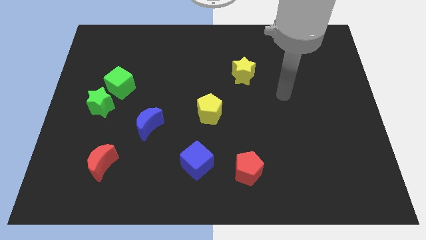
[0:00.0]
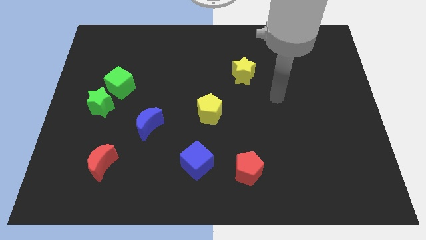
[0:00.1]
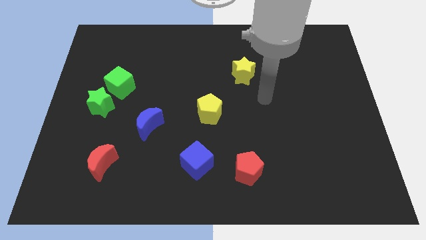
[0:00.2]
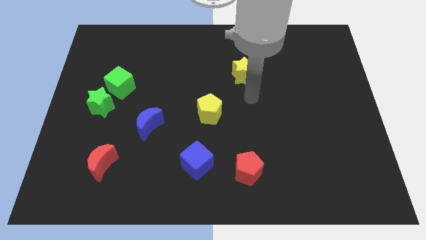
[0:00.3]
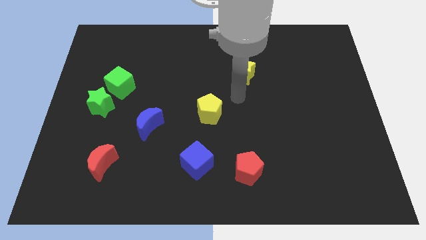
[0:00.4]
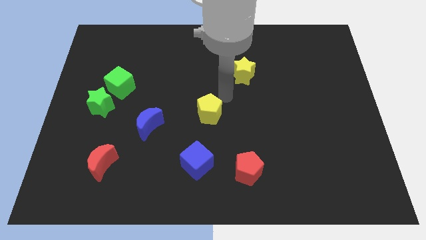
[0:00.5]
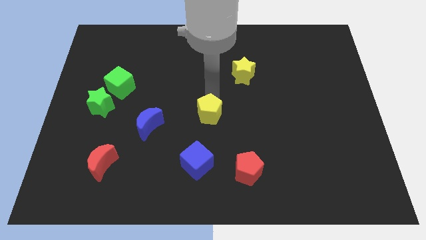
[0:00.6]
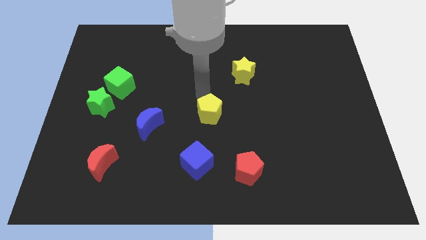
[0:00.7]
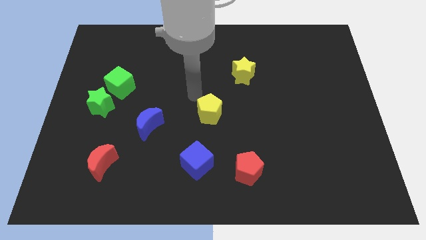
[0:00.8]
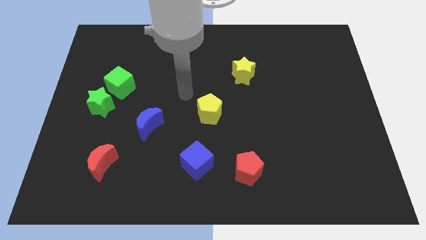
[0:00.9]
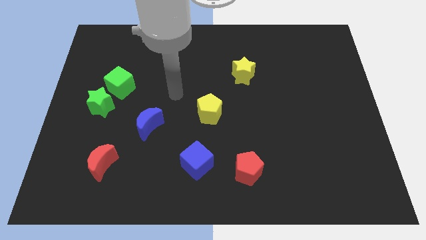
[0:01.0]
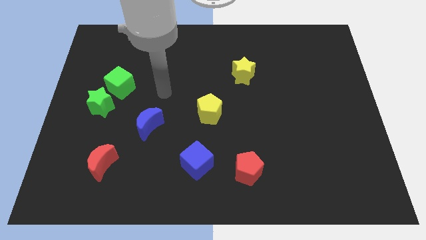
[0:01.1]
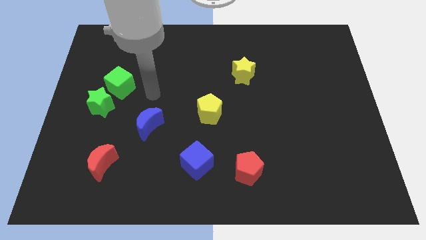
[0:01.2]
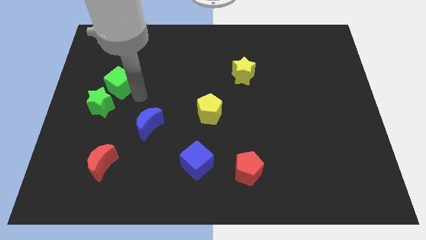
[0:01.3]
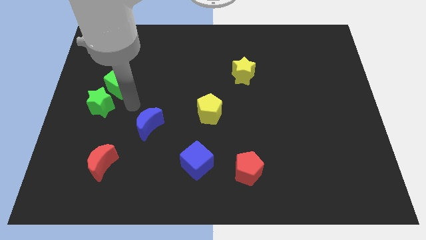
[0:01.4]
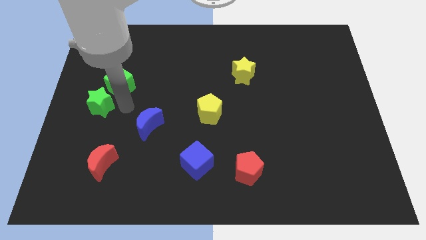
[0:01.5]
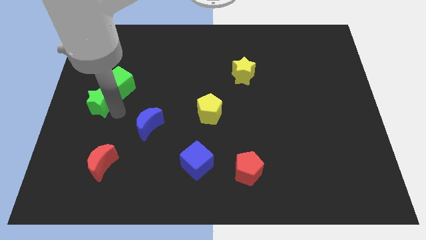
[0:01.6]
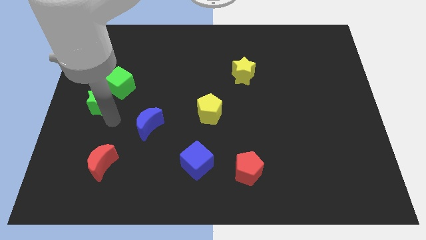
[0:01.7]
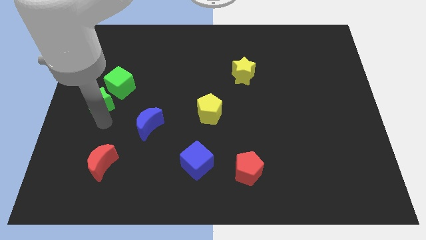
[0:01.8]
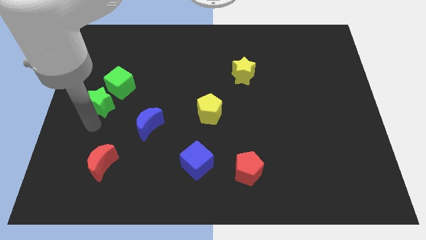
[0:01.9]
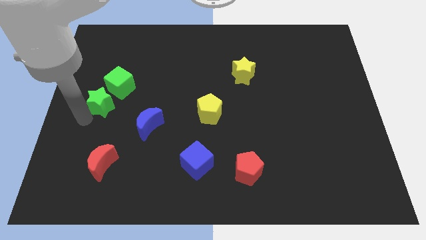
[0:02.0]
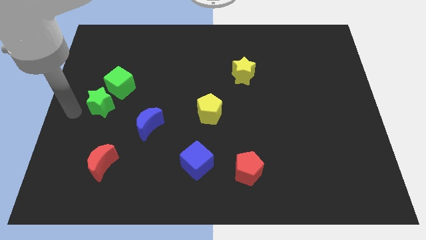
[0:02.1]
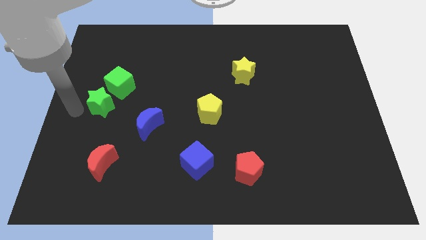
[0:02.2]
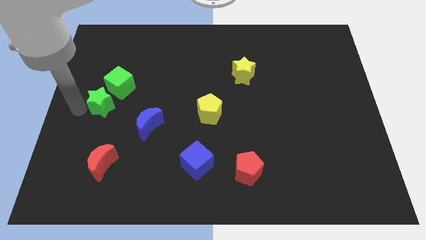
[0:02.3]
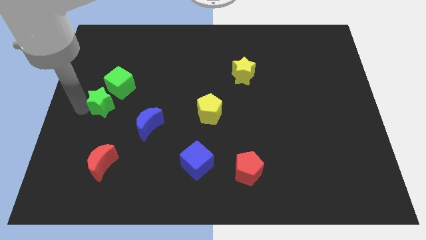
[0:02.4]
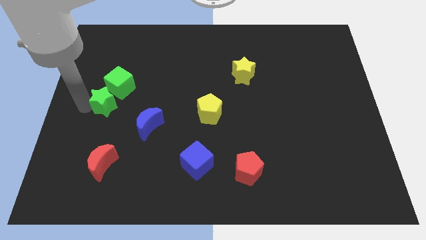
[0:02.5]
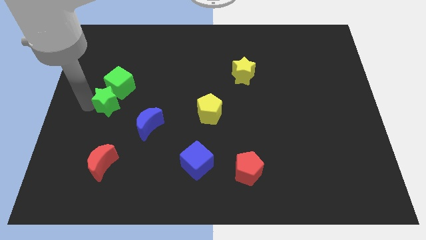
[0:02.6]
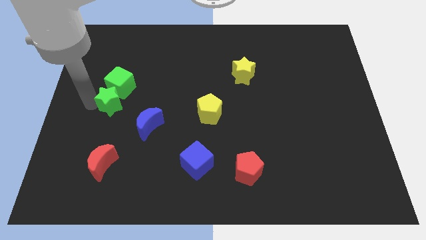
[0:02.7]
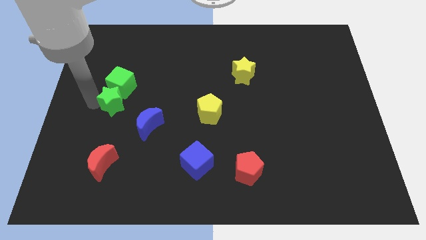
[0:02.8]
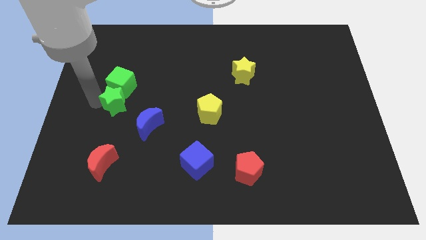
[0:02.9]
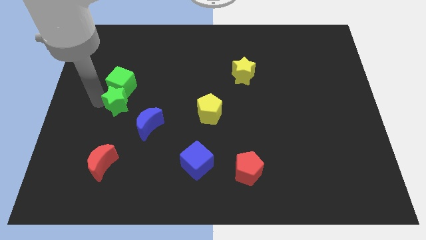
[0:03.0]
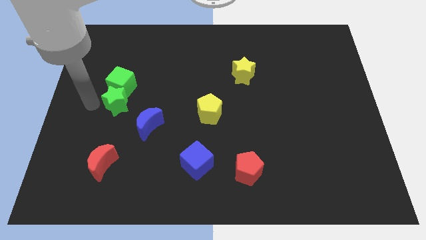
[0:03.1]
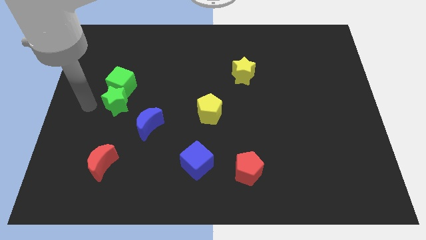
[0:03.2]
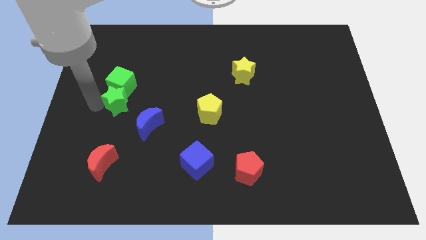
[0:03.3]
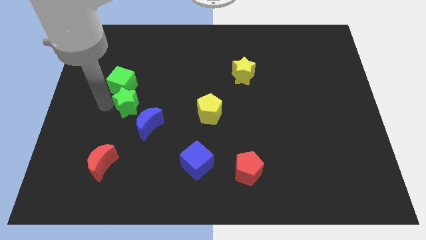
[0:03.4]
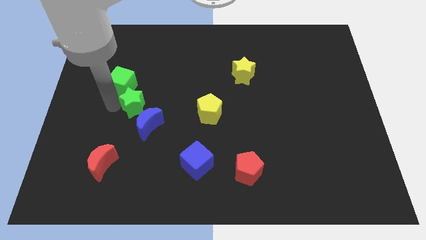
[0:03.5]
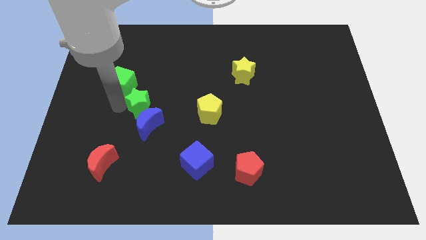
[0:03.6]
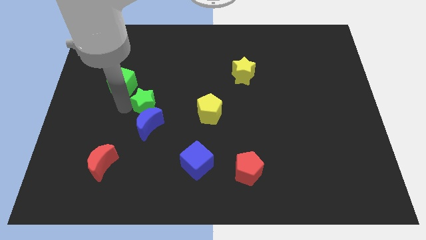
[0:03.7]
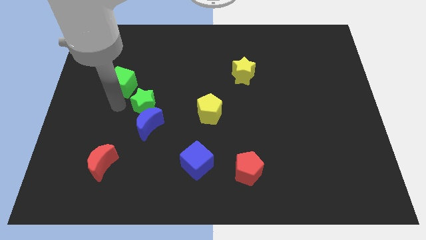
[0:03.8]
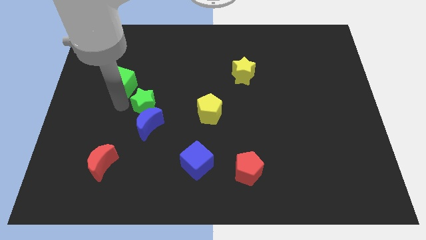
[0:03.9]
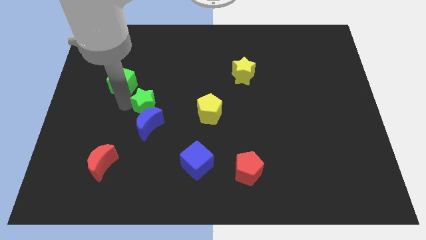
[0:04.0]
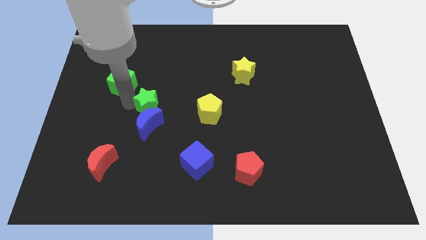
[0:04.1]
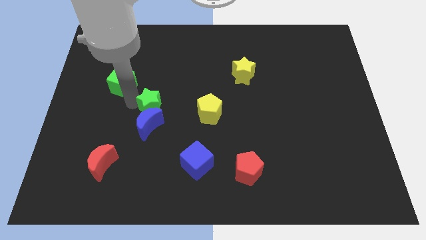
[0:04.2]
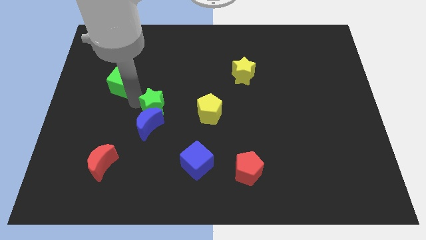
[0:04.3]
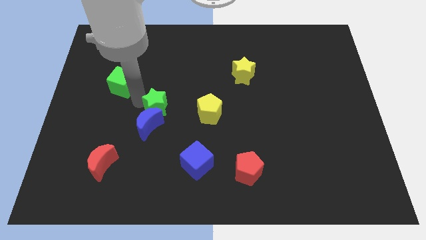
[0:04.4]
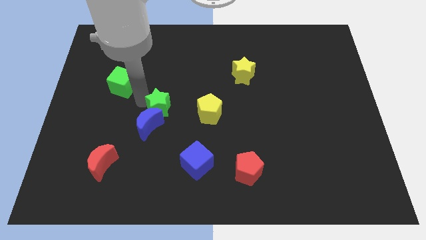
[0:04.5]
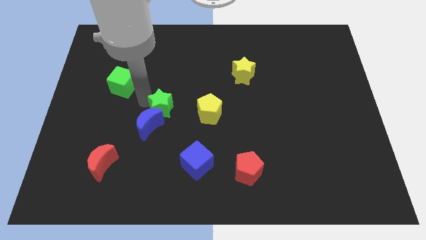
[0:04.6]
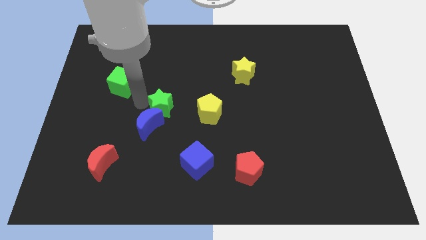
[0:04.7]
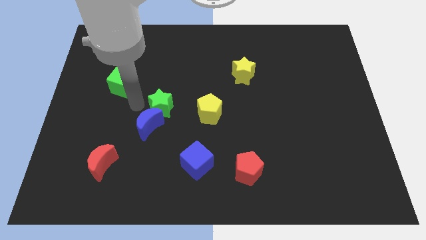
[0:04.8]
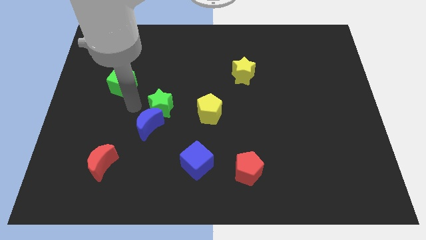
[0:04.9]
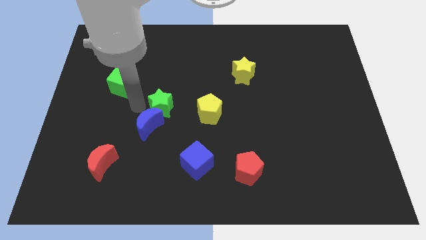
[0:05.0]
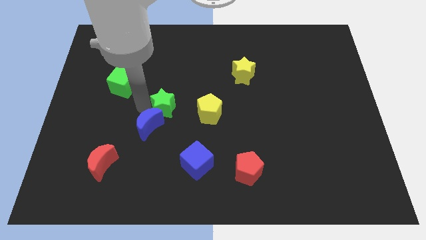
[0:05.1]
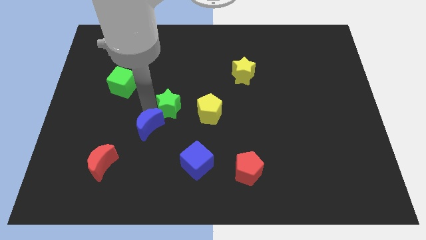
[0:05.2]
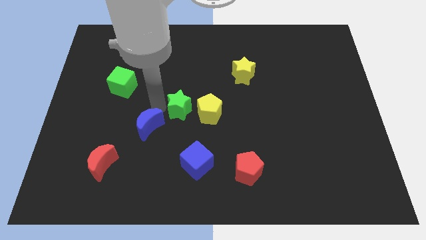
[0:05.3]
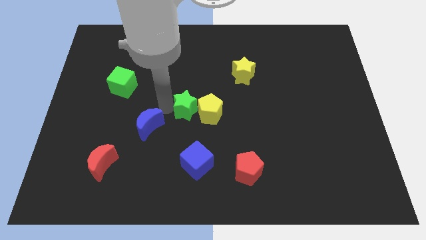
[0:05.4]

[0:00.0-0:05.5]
push the green star next to the yellow pentagon

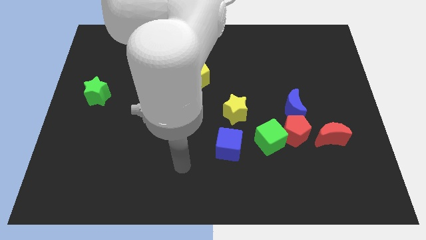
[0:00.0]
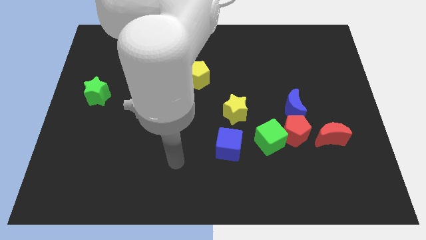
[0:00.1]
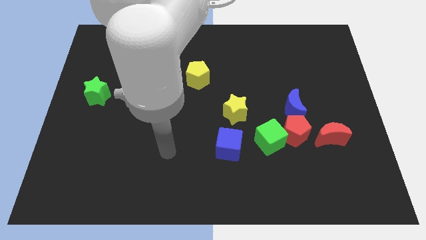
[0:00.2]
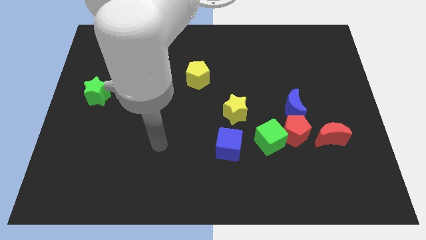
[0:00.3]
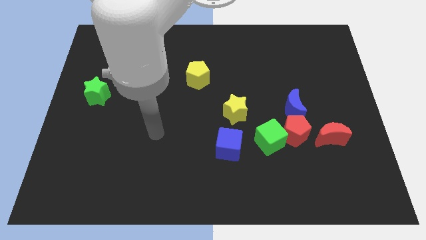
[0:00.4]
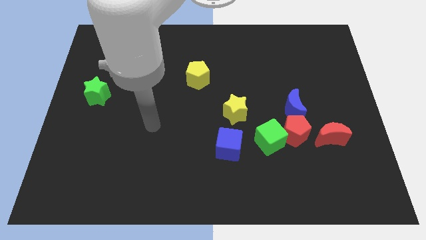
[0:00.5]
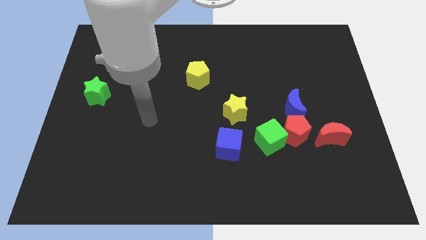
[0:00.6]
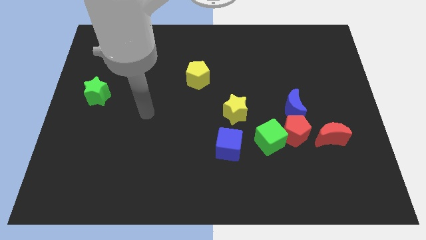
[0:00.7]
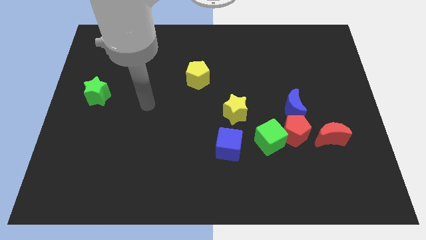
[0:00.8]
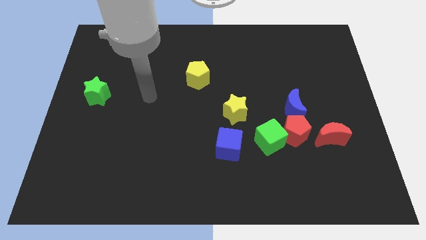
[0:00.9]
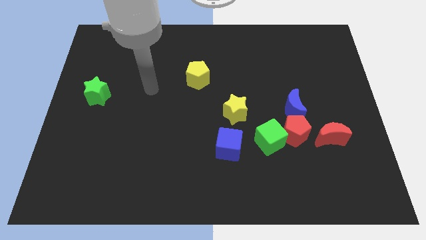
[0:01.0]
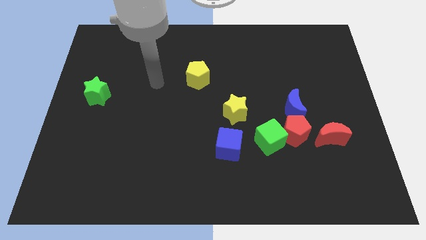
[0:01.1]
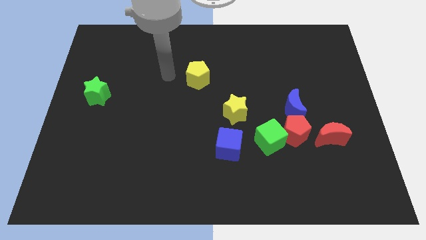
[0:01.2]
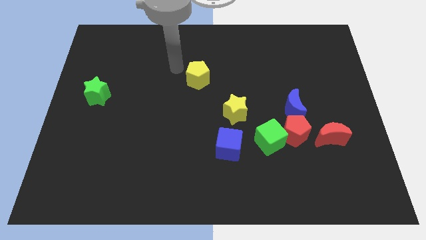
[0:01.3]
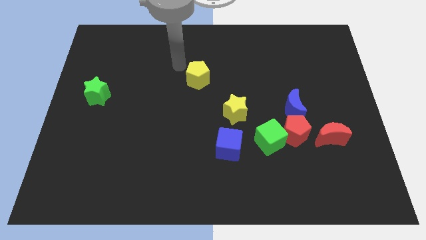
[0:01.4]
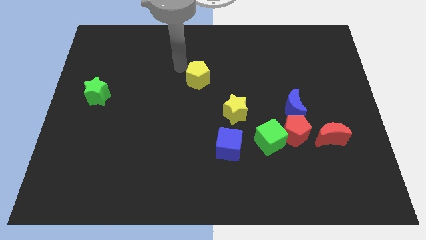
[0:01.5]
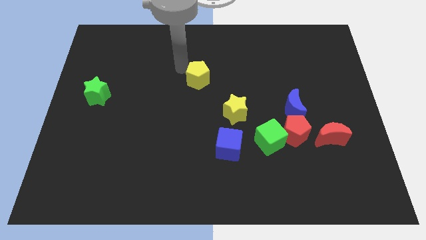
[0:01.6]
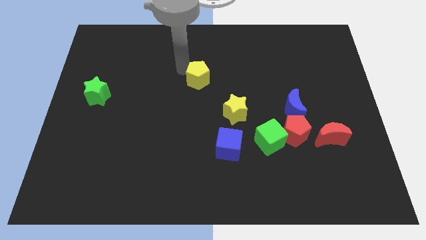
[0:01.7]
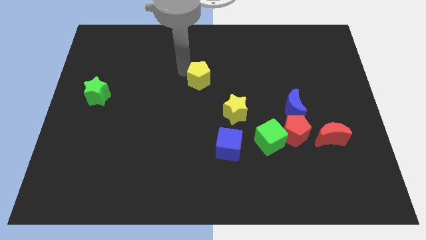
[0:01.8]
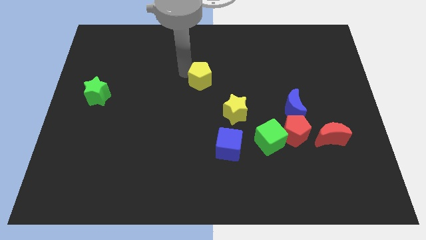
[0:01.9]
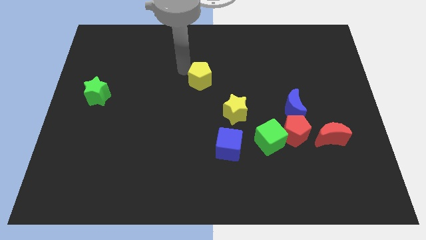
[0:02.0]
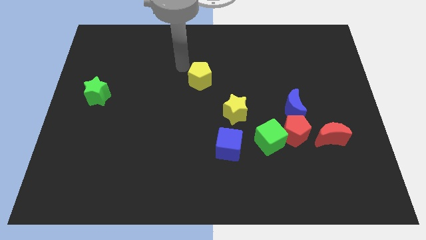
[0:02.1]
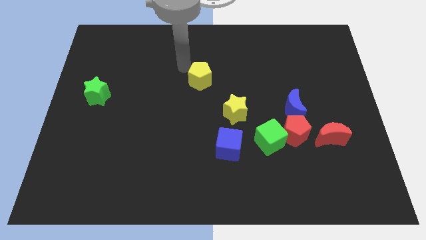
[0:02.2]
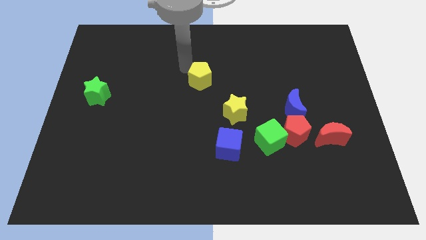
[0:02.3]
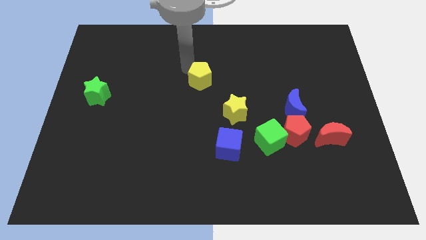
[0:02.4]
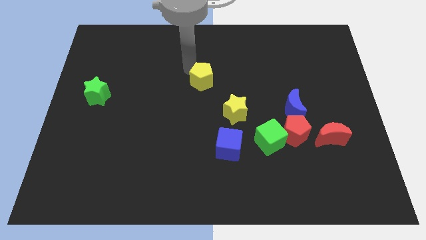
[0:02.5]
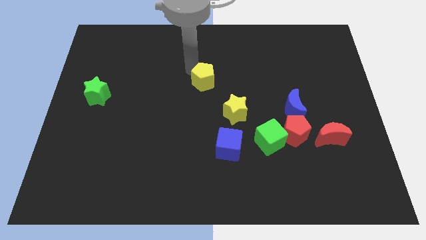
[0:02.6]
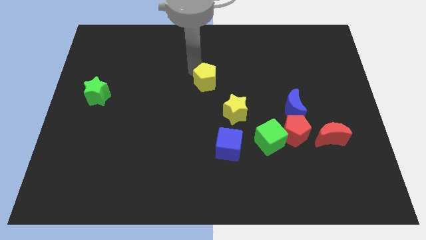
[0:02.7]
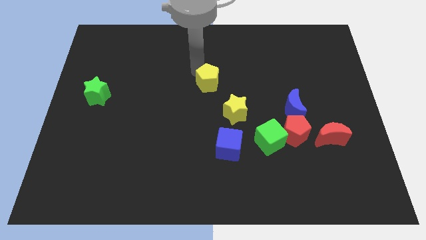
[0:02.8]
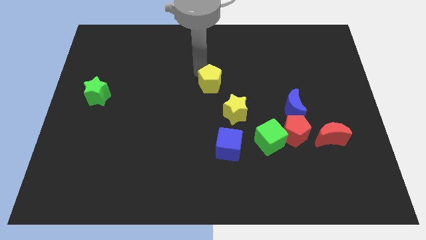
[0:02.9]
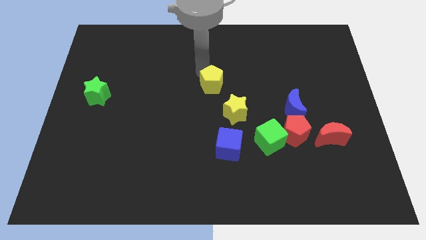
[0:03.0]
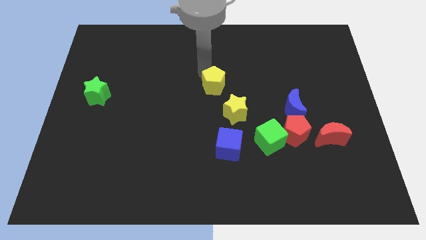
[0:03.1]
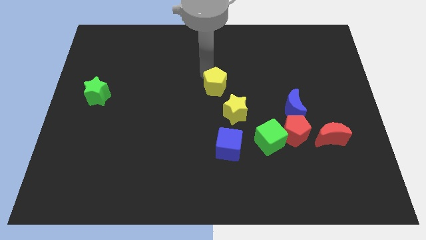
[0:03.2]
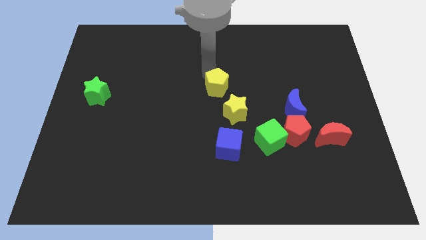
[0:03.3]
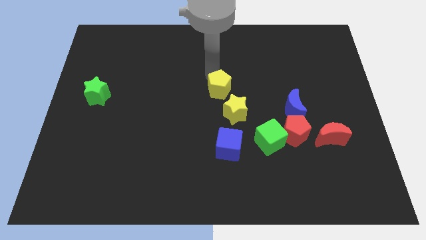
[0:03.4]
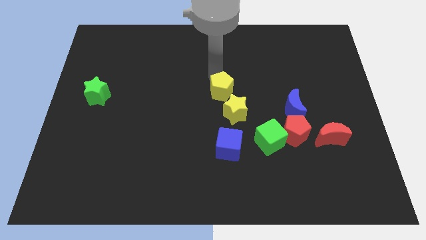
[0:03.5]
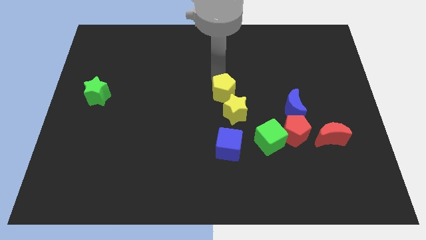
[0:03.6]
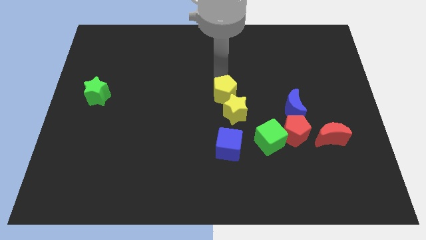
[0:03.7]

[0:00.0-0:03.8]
slide the yellow pentagon to the yellow star
